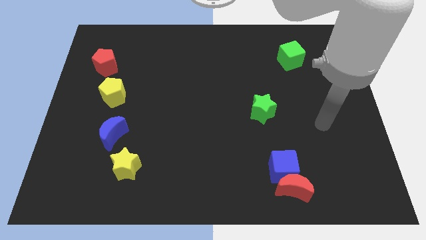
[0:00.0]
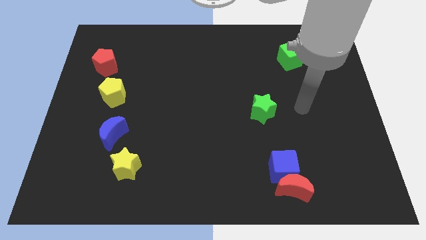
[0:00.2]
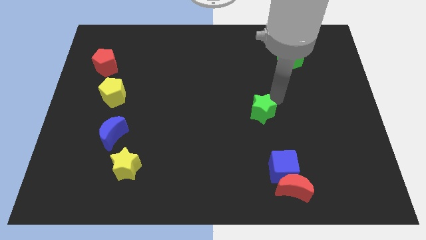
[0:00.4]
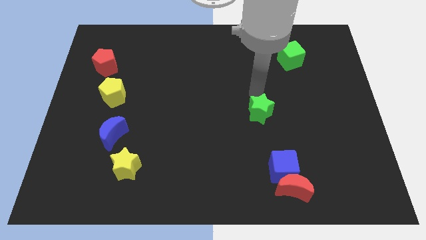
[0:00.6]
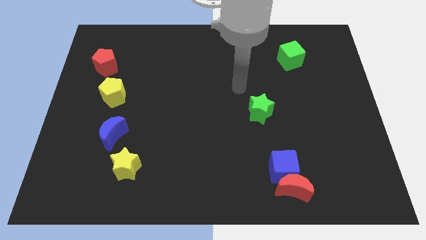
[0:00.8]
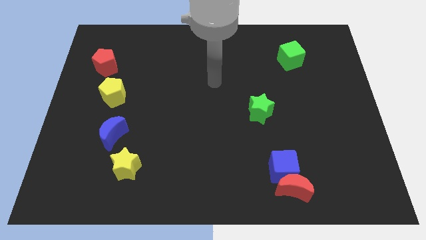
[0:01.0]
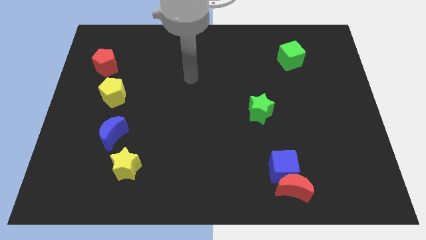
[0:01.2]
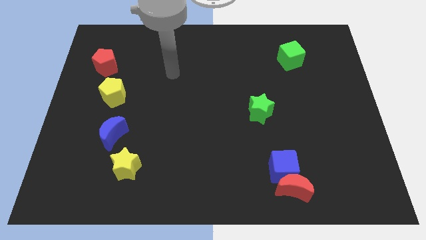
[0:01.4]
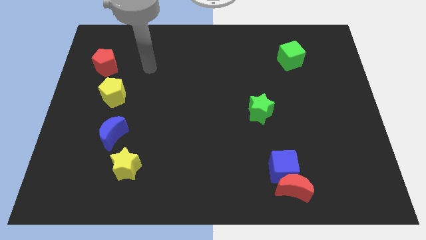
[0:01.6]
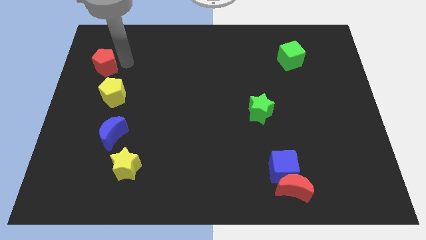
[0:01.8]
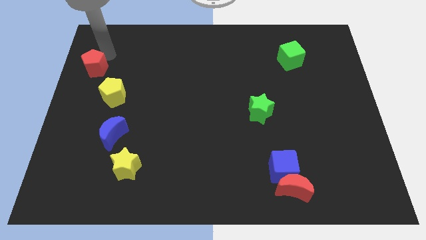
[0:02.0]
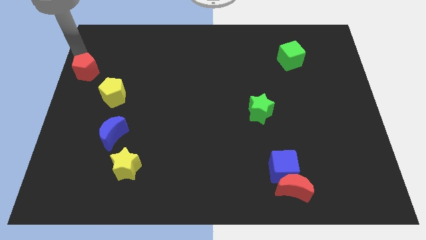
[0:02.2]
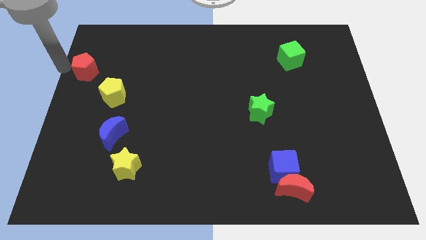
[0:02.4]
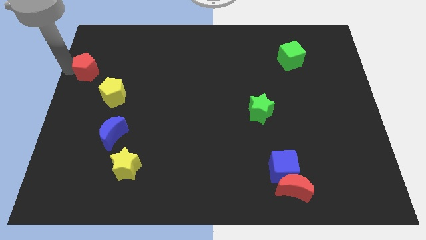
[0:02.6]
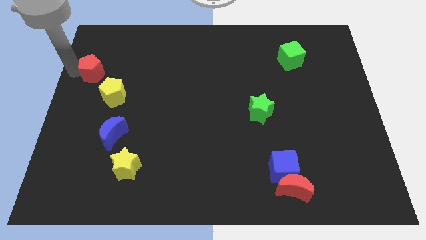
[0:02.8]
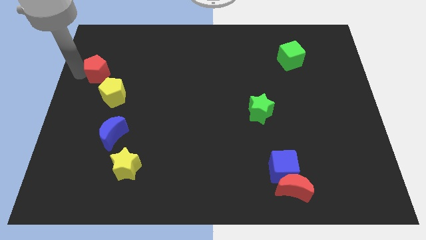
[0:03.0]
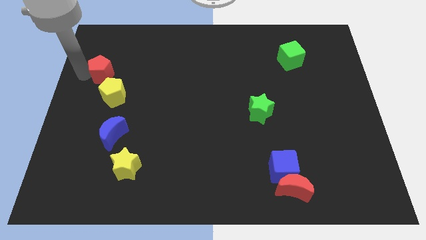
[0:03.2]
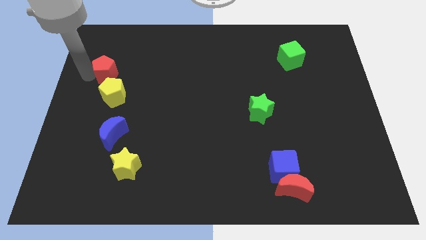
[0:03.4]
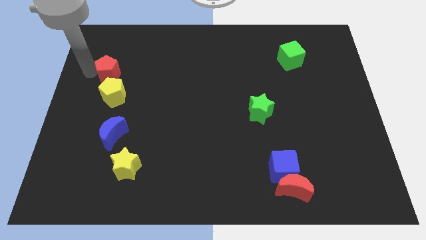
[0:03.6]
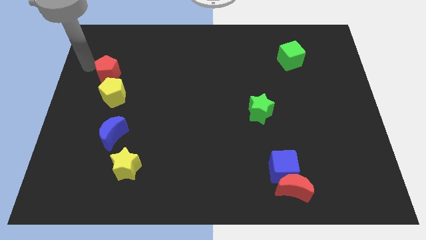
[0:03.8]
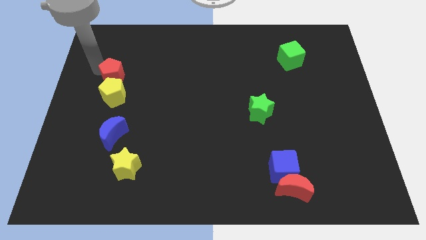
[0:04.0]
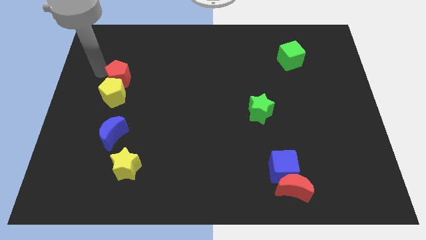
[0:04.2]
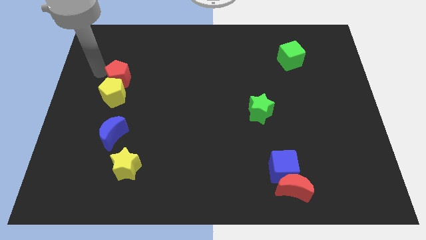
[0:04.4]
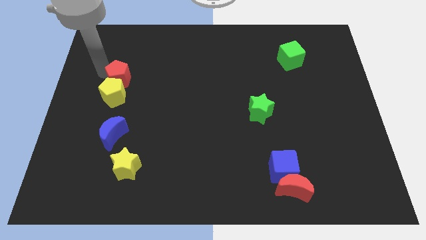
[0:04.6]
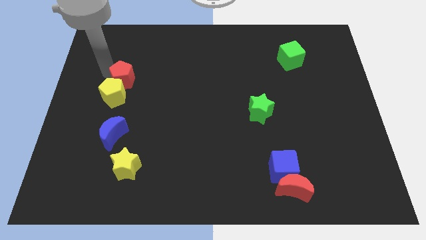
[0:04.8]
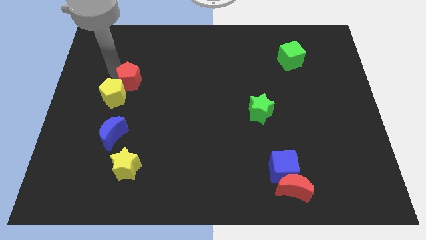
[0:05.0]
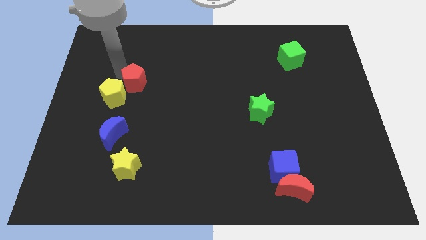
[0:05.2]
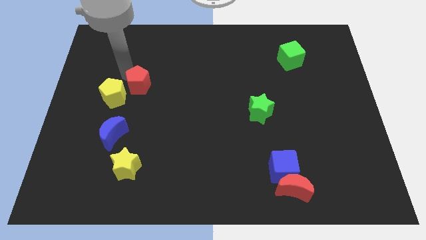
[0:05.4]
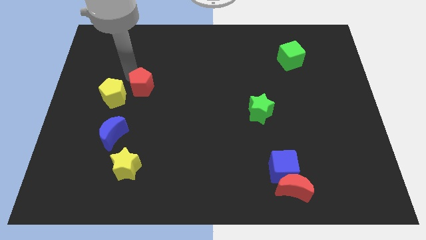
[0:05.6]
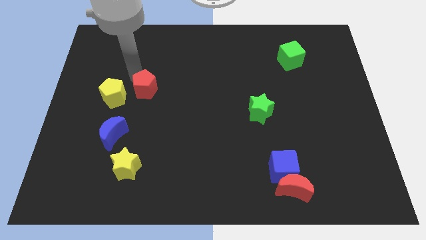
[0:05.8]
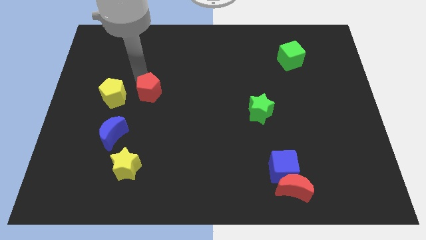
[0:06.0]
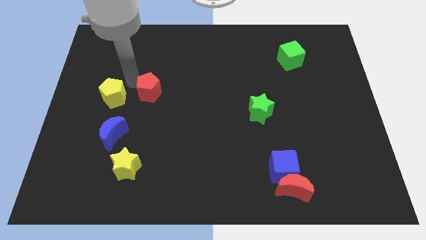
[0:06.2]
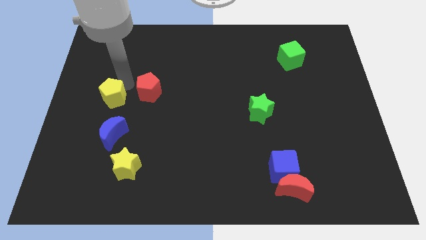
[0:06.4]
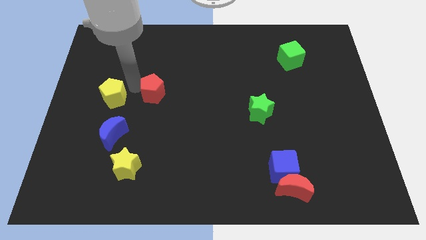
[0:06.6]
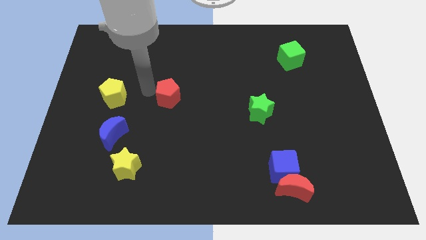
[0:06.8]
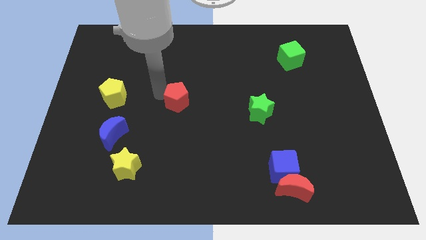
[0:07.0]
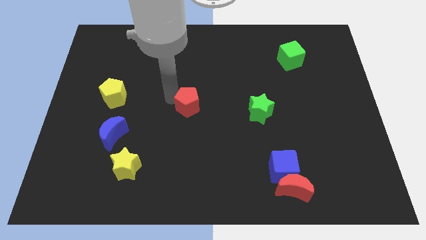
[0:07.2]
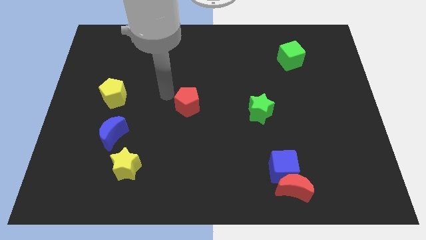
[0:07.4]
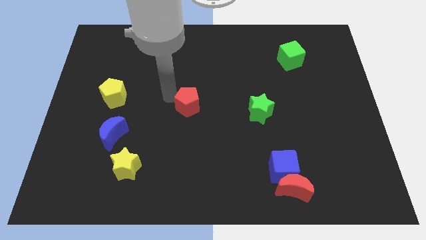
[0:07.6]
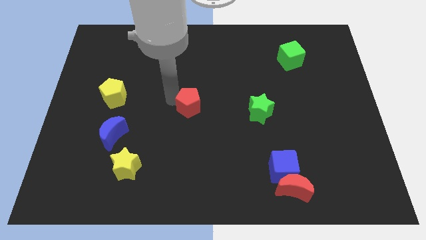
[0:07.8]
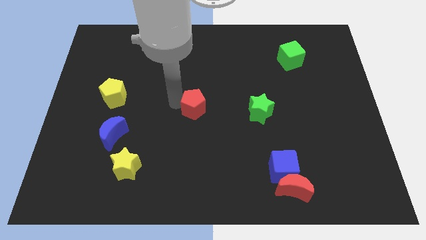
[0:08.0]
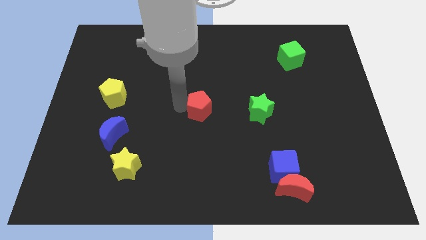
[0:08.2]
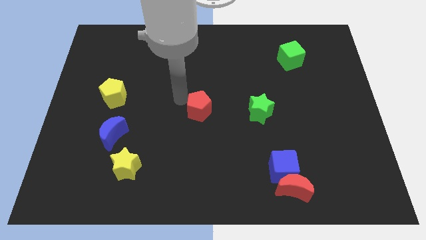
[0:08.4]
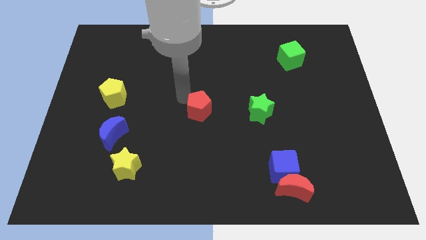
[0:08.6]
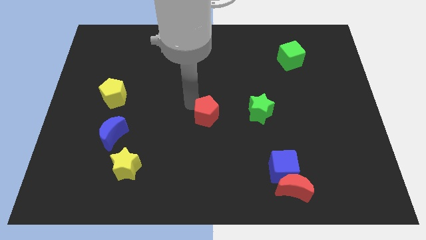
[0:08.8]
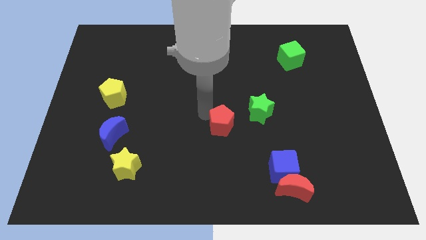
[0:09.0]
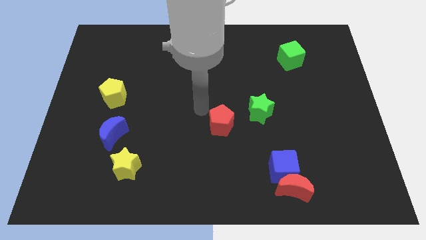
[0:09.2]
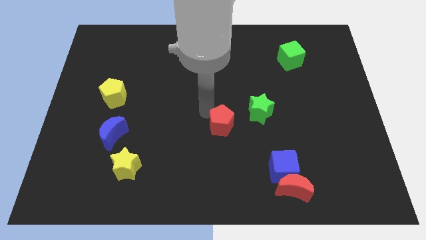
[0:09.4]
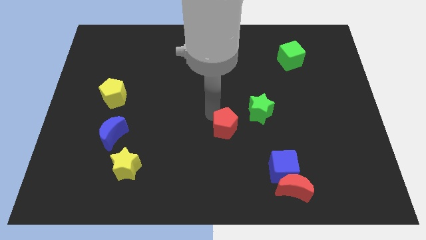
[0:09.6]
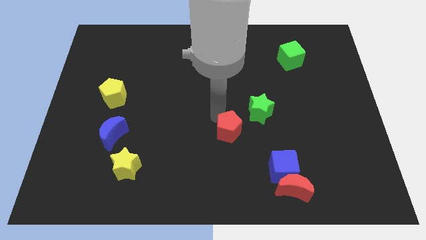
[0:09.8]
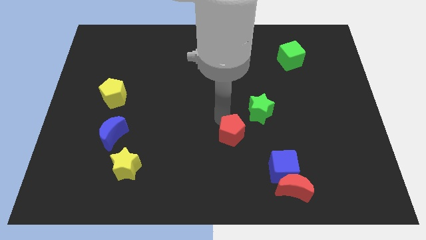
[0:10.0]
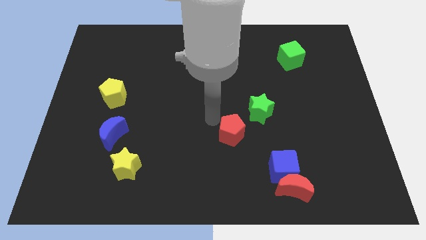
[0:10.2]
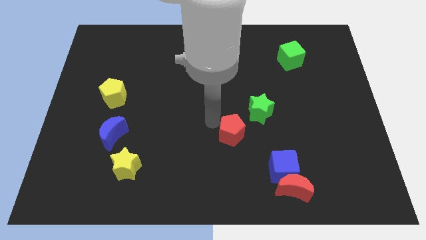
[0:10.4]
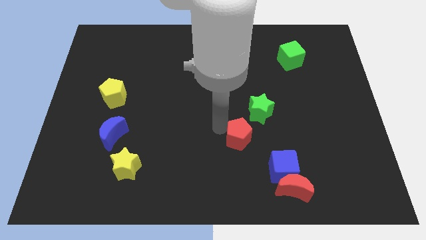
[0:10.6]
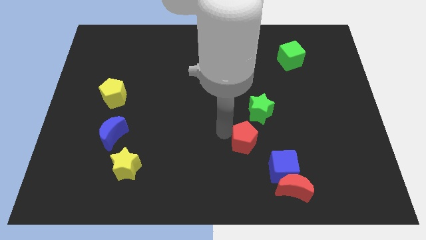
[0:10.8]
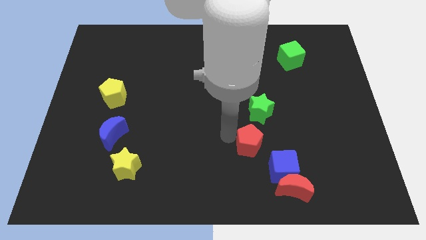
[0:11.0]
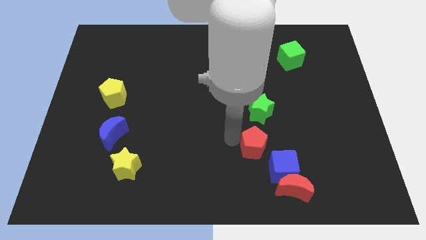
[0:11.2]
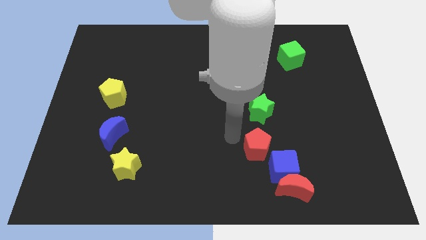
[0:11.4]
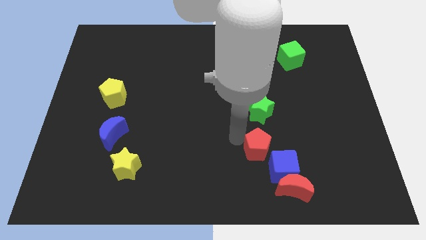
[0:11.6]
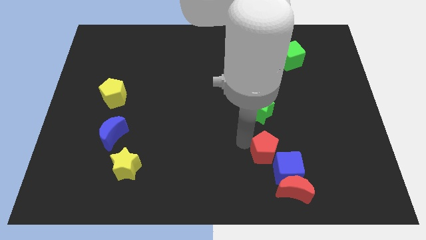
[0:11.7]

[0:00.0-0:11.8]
slide the red pentagon to the blue cube
